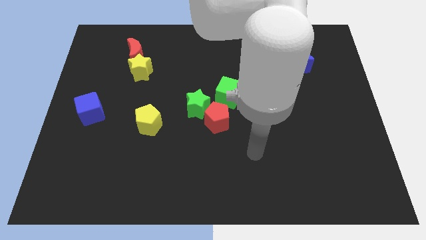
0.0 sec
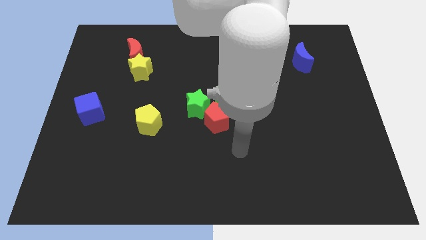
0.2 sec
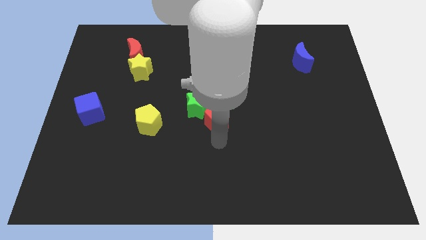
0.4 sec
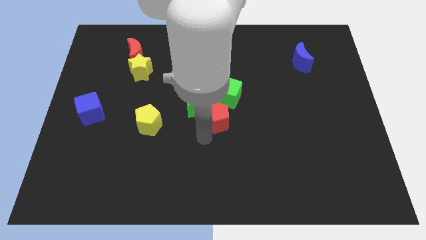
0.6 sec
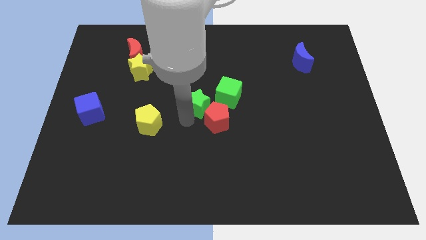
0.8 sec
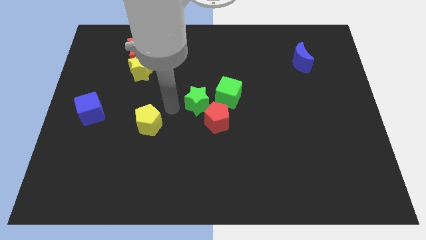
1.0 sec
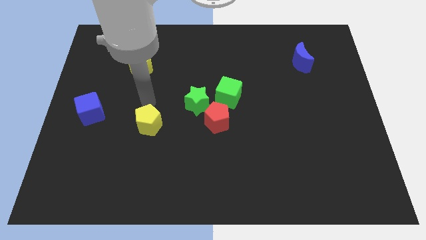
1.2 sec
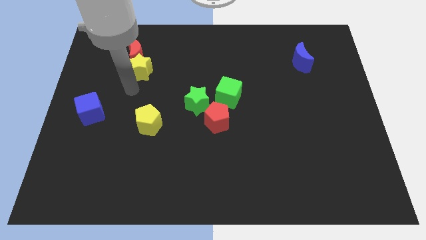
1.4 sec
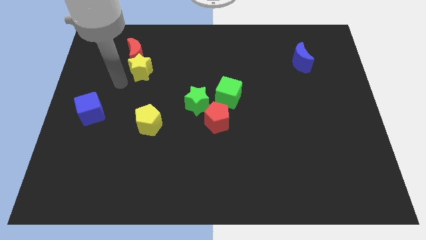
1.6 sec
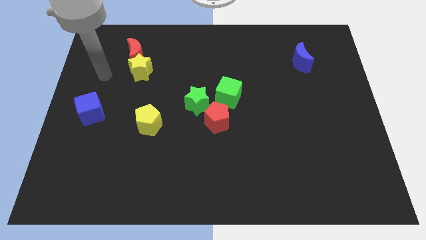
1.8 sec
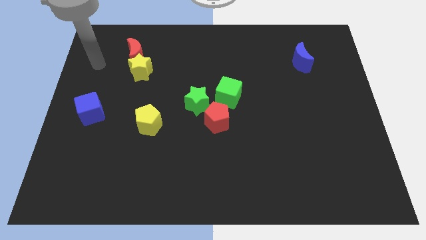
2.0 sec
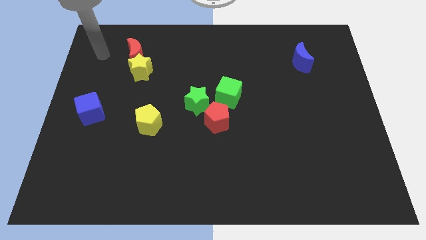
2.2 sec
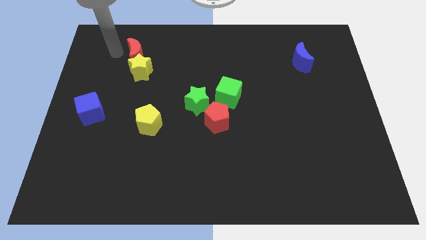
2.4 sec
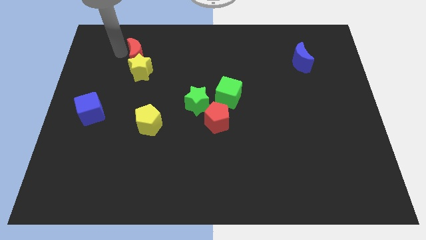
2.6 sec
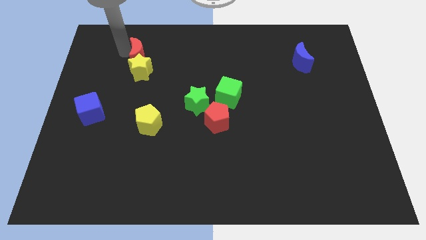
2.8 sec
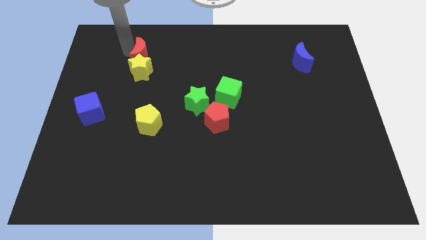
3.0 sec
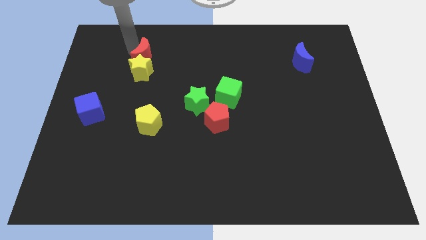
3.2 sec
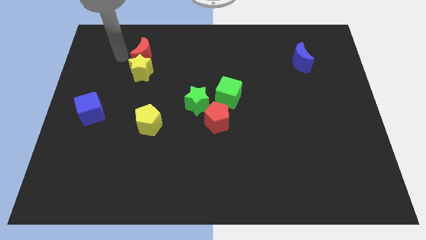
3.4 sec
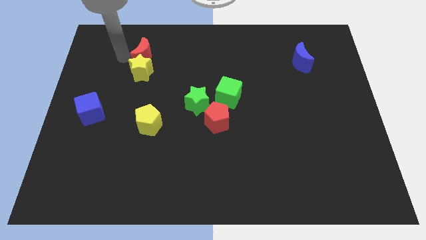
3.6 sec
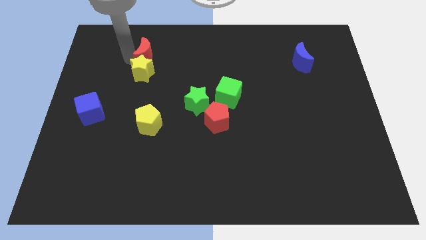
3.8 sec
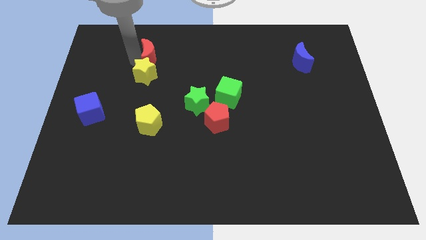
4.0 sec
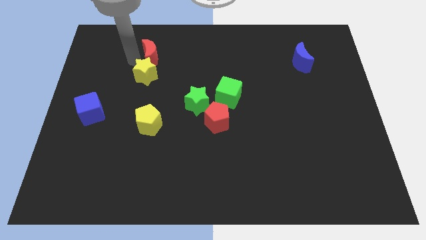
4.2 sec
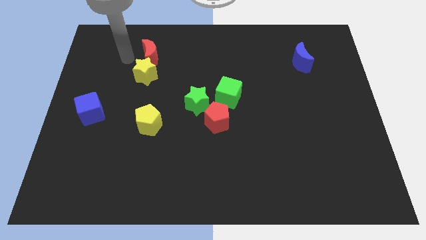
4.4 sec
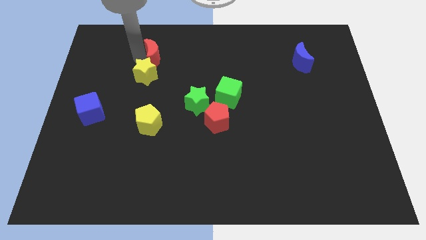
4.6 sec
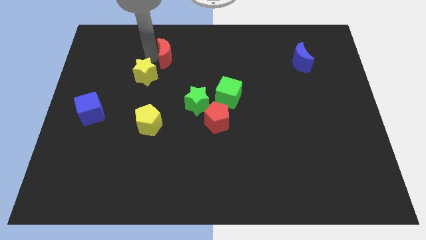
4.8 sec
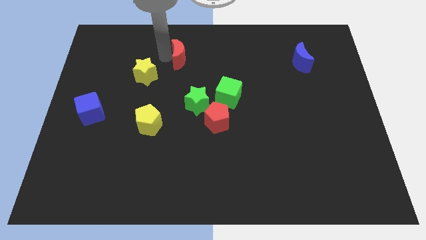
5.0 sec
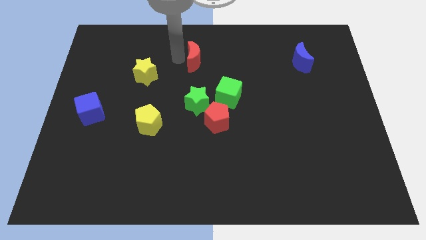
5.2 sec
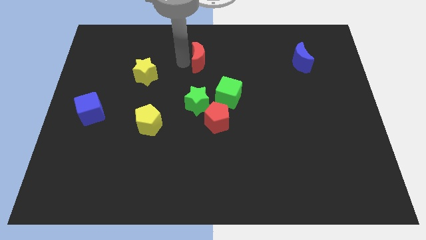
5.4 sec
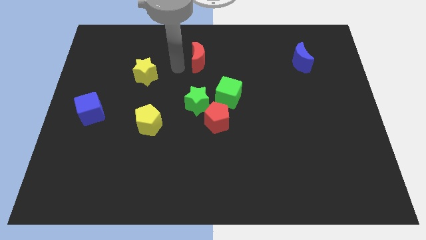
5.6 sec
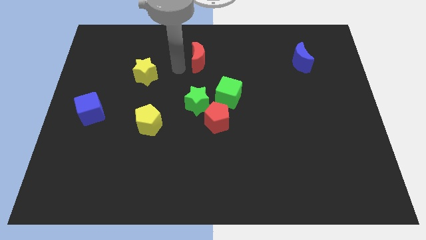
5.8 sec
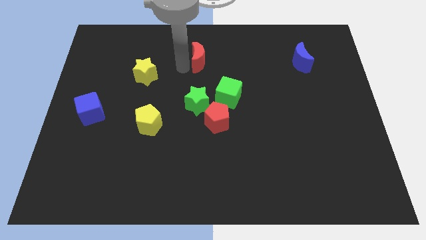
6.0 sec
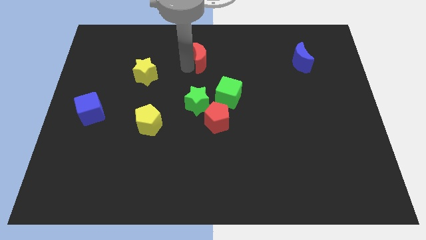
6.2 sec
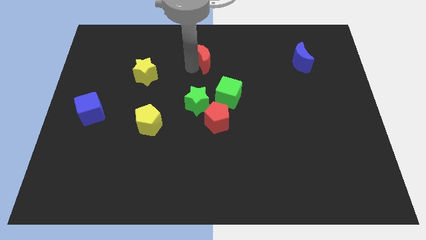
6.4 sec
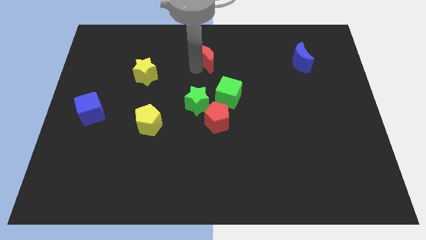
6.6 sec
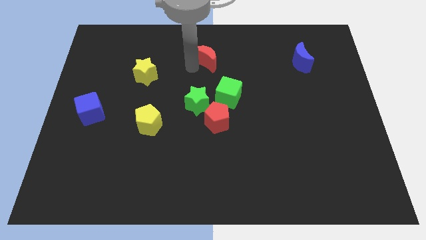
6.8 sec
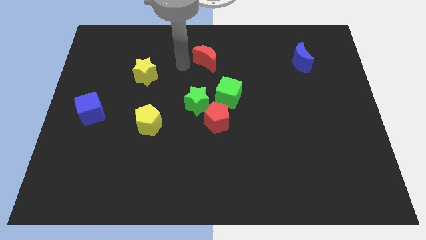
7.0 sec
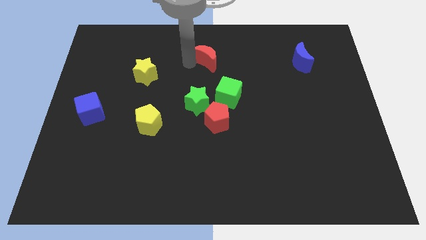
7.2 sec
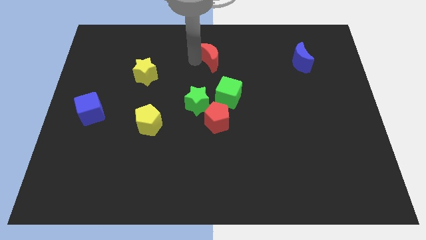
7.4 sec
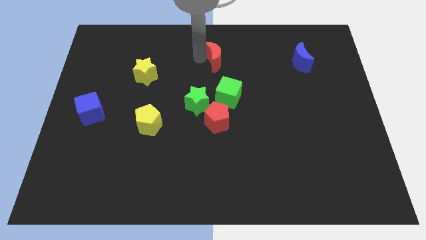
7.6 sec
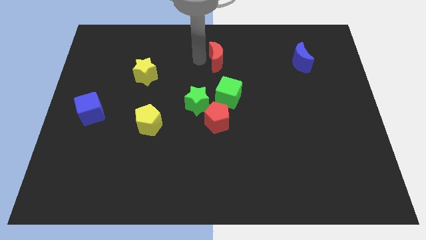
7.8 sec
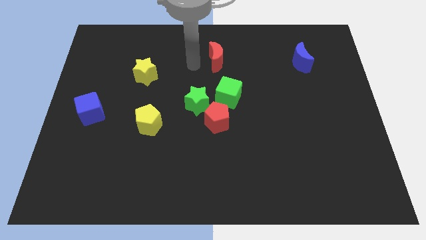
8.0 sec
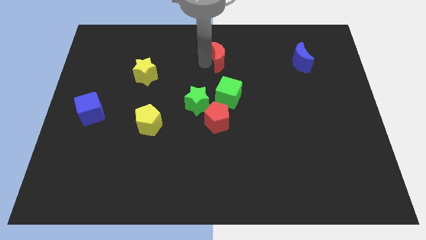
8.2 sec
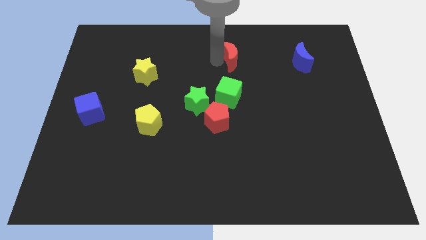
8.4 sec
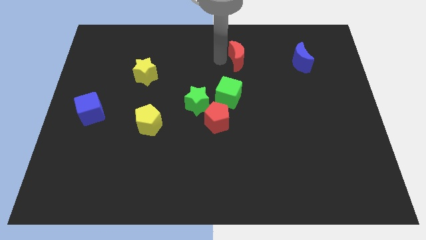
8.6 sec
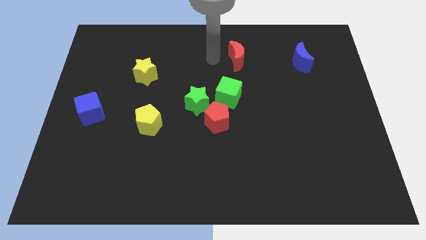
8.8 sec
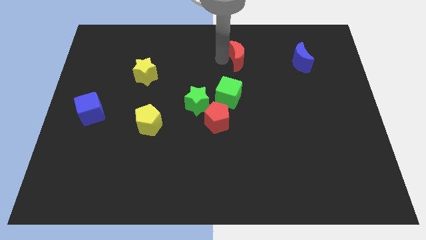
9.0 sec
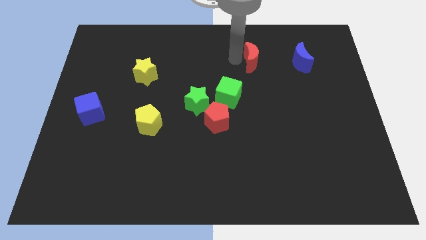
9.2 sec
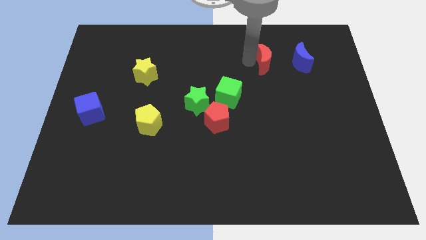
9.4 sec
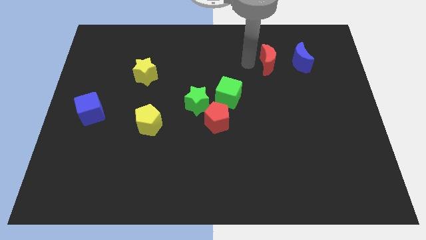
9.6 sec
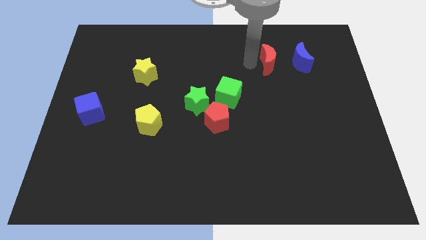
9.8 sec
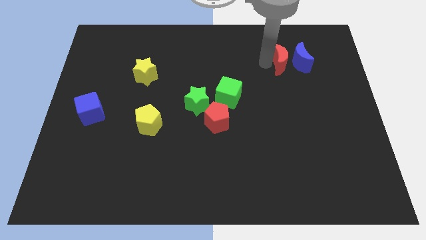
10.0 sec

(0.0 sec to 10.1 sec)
move the red moon towards the blue moon

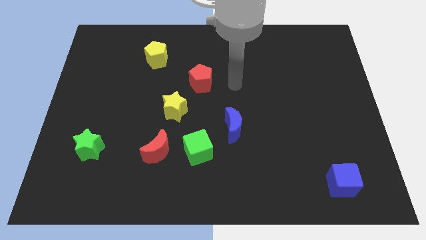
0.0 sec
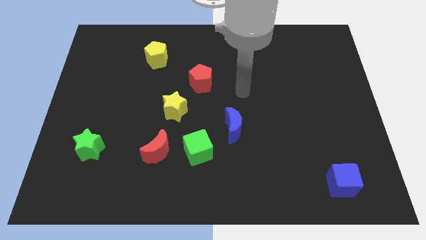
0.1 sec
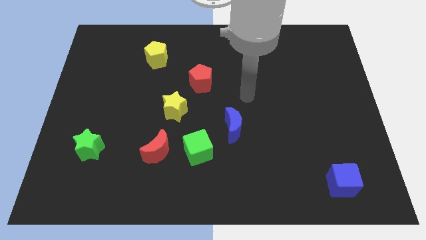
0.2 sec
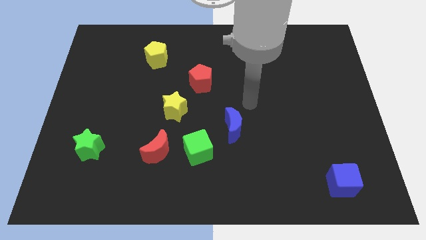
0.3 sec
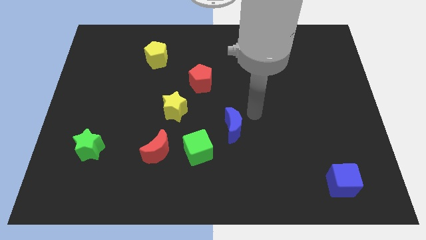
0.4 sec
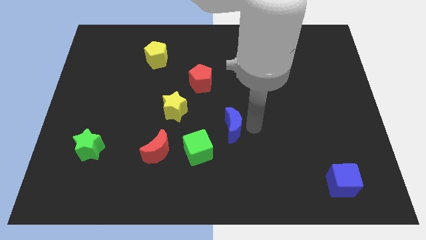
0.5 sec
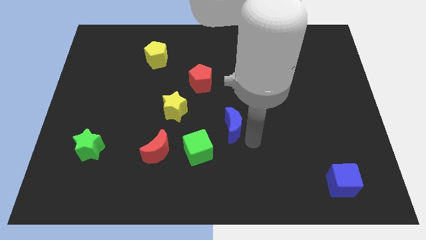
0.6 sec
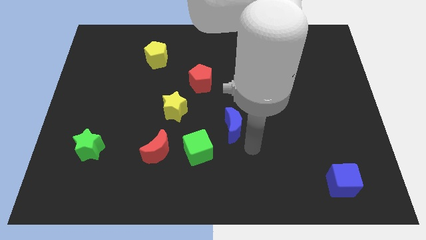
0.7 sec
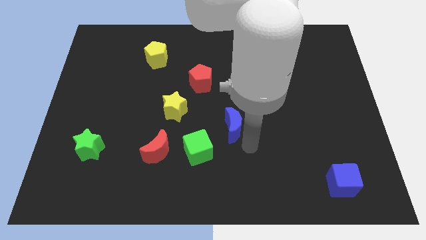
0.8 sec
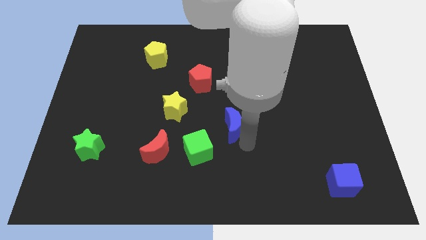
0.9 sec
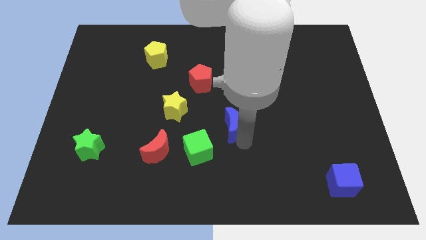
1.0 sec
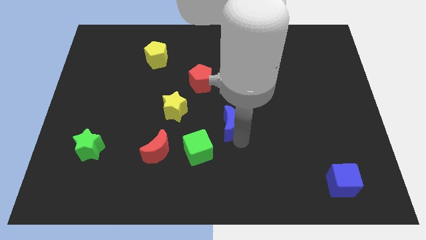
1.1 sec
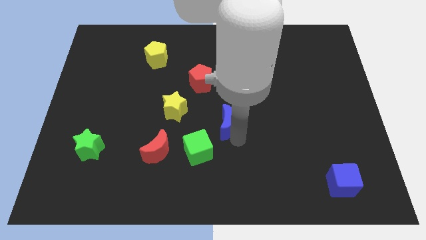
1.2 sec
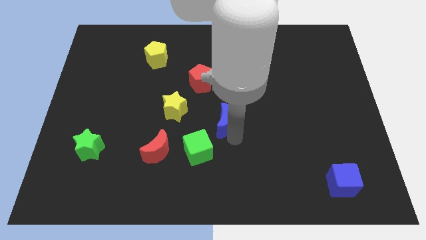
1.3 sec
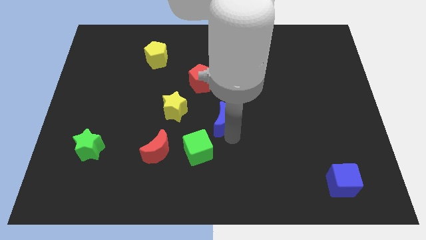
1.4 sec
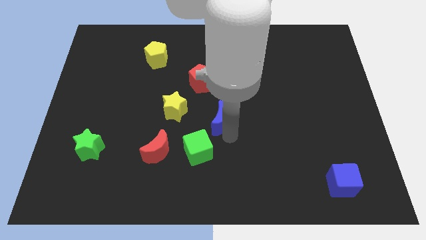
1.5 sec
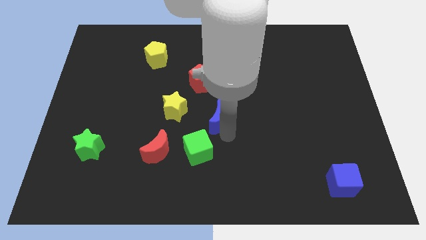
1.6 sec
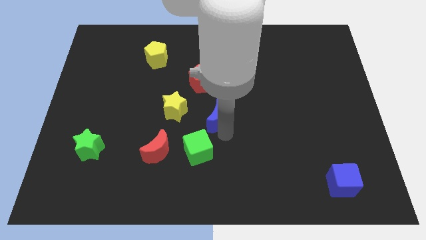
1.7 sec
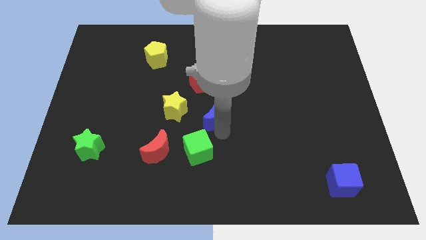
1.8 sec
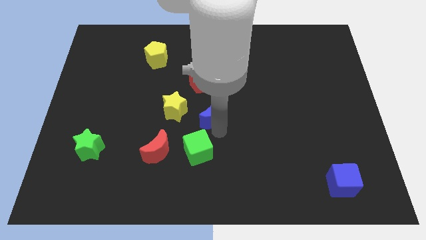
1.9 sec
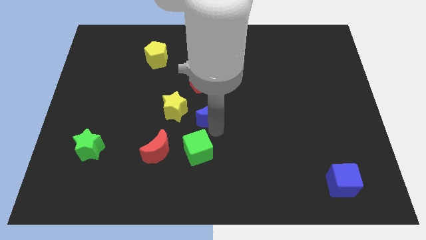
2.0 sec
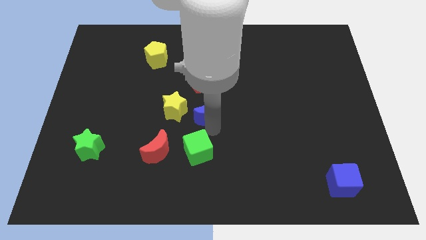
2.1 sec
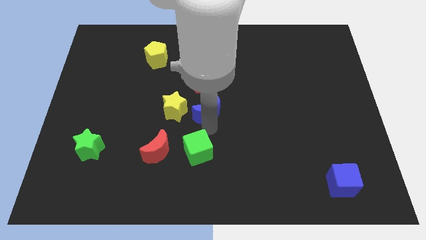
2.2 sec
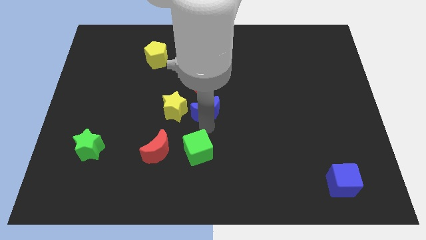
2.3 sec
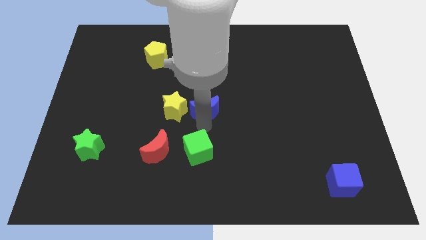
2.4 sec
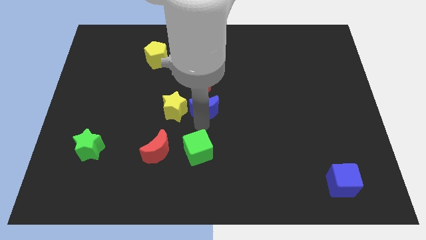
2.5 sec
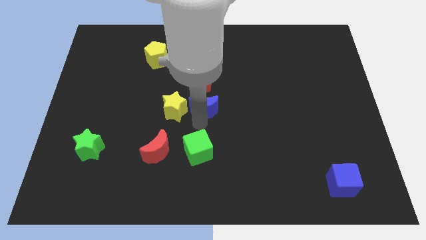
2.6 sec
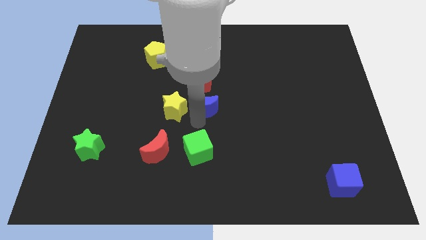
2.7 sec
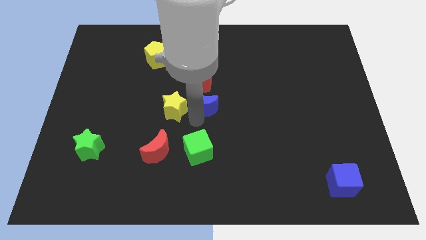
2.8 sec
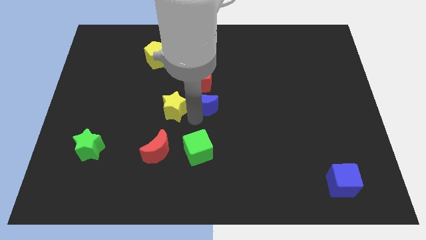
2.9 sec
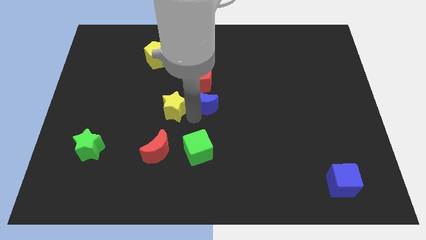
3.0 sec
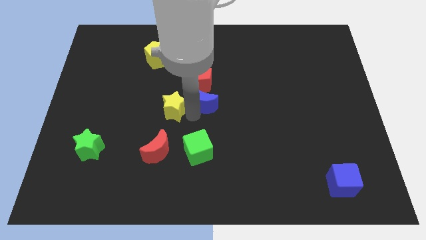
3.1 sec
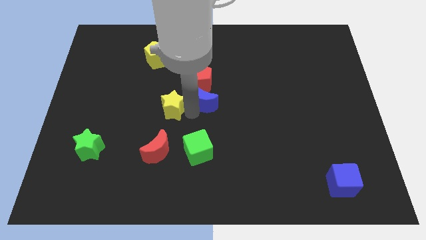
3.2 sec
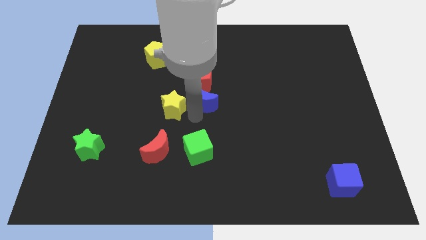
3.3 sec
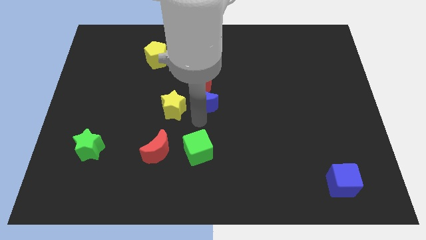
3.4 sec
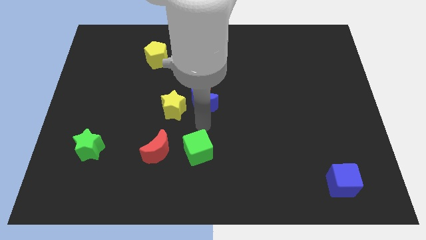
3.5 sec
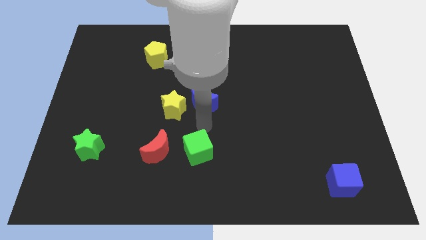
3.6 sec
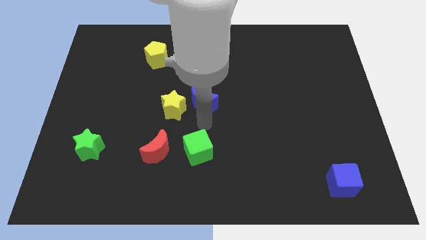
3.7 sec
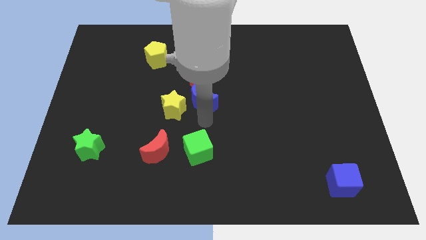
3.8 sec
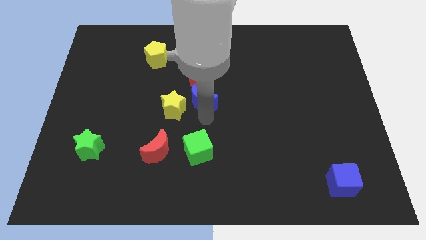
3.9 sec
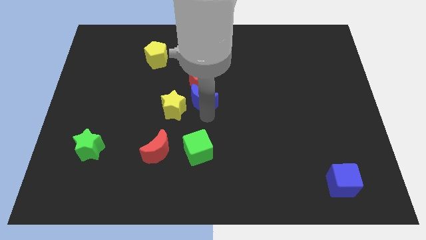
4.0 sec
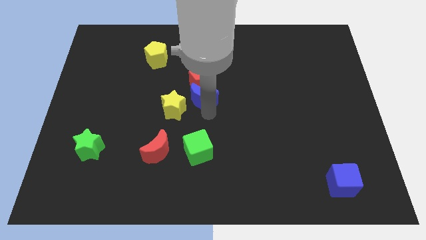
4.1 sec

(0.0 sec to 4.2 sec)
move the blue moon close to the red pentagon
